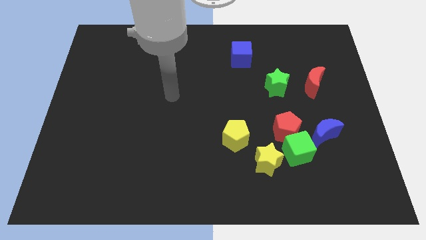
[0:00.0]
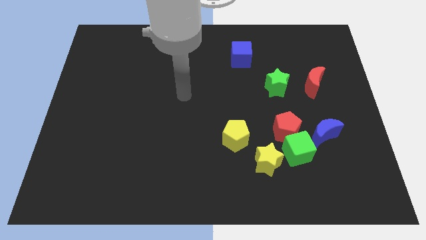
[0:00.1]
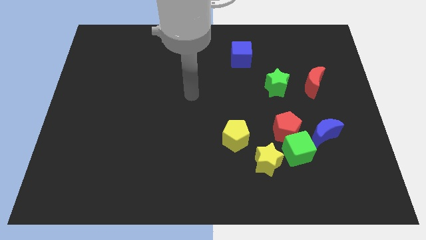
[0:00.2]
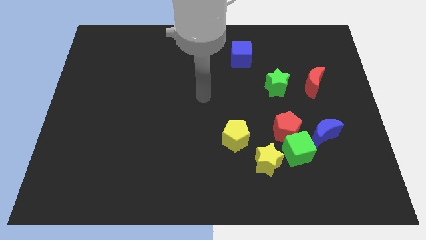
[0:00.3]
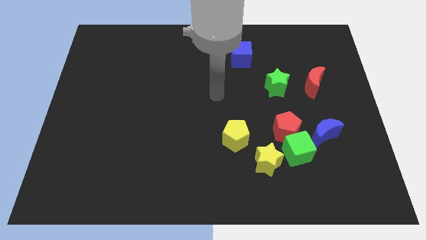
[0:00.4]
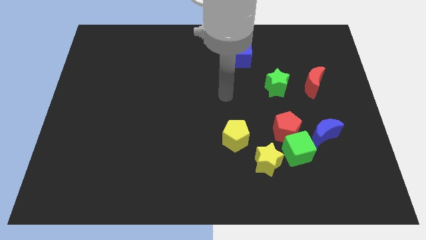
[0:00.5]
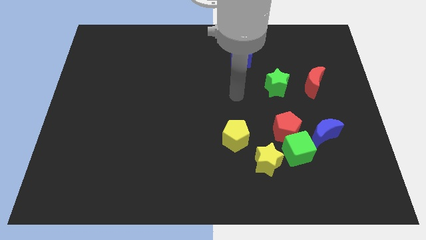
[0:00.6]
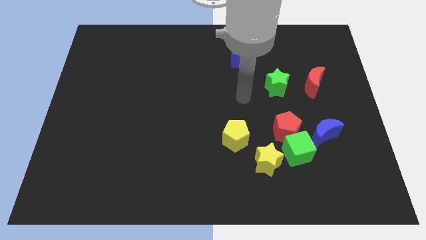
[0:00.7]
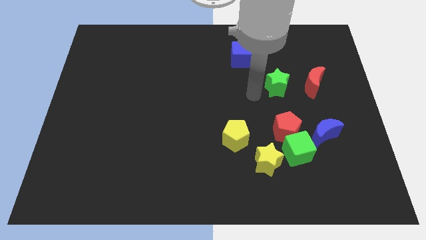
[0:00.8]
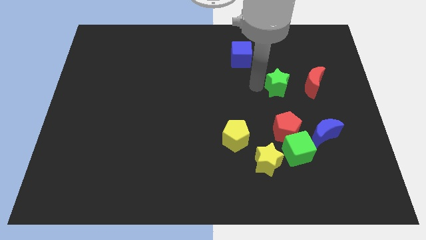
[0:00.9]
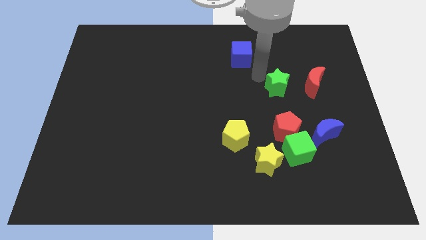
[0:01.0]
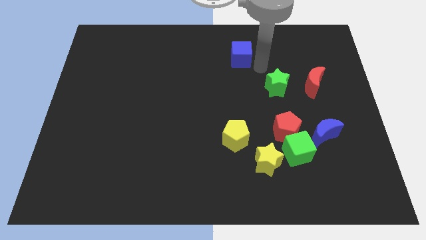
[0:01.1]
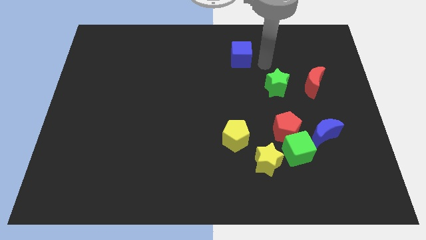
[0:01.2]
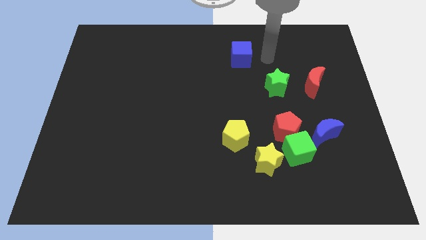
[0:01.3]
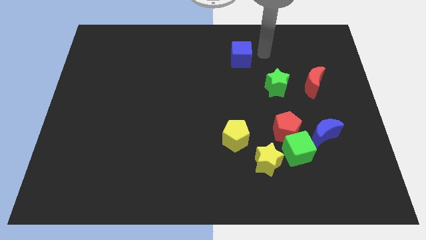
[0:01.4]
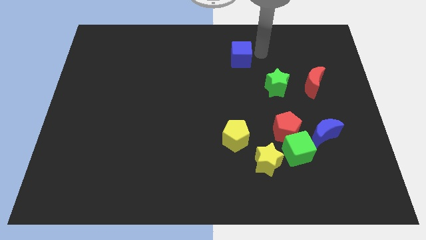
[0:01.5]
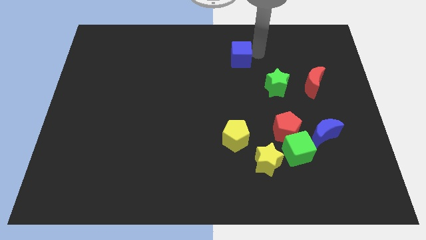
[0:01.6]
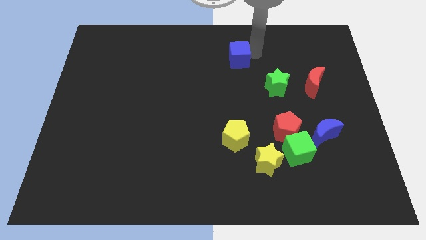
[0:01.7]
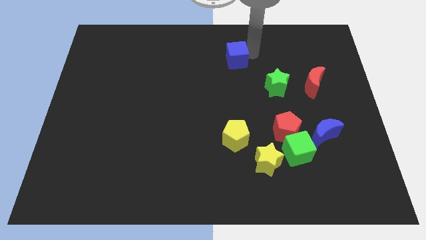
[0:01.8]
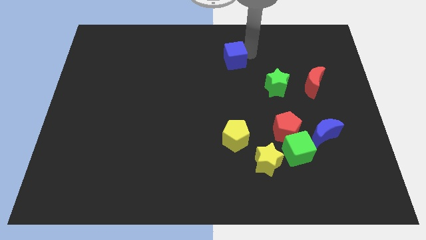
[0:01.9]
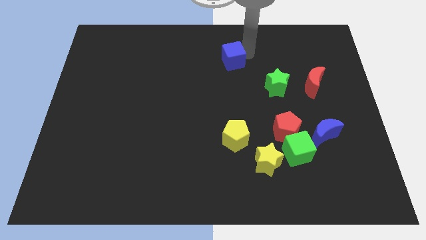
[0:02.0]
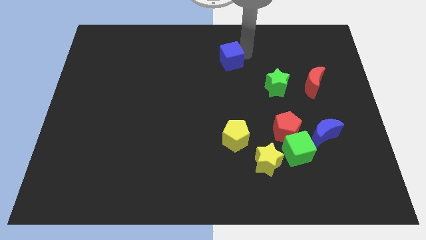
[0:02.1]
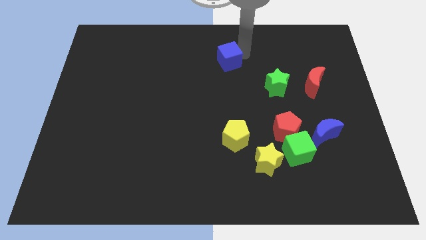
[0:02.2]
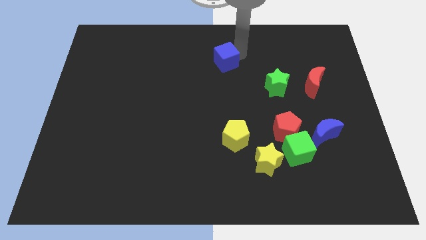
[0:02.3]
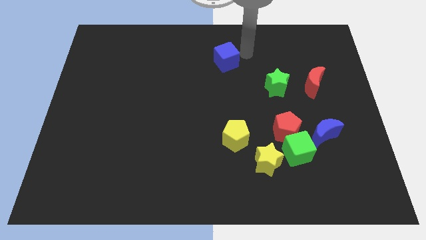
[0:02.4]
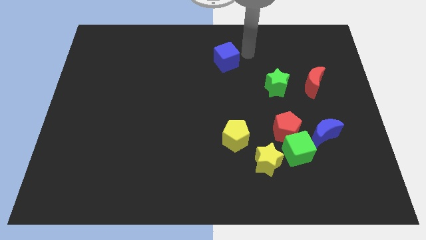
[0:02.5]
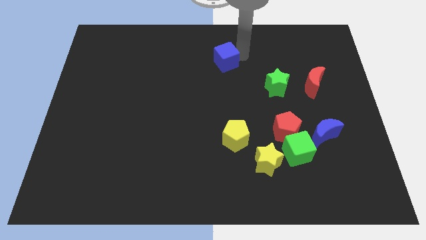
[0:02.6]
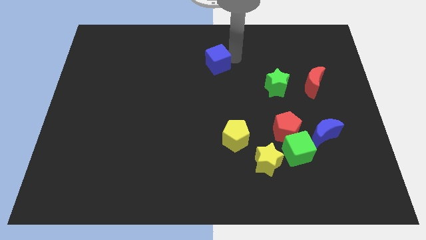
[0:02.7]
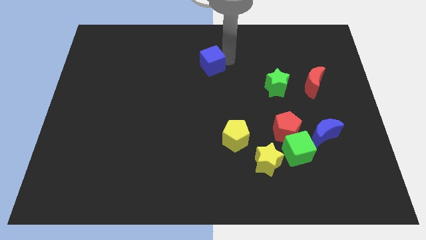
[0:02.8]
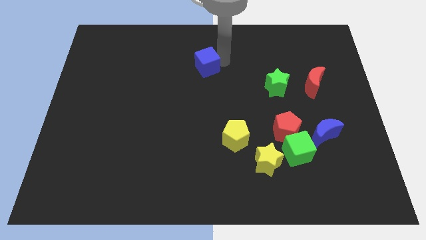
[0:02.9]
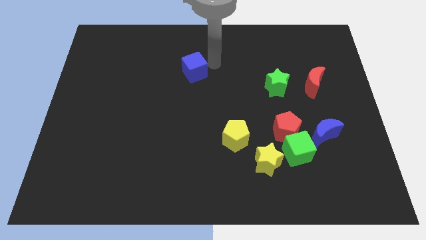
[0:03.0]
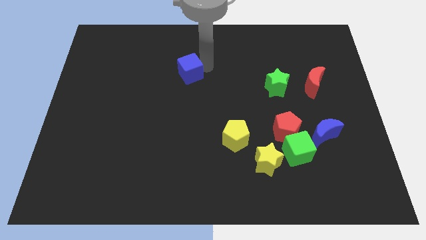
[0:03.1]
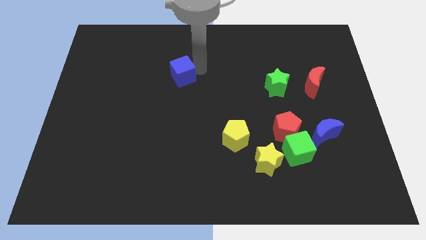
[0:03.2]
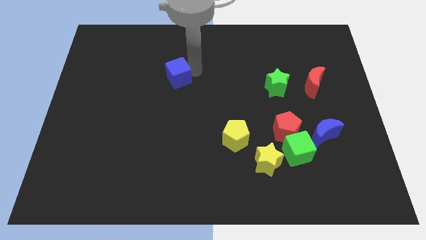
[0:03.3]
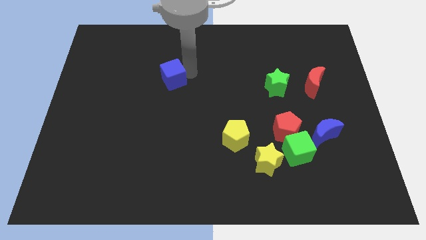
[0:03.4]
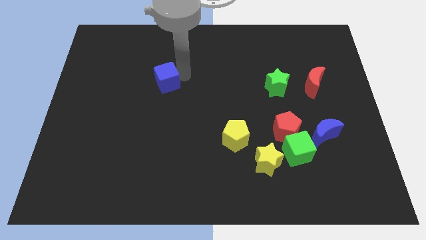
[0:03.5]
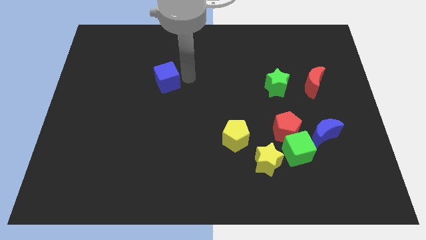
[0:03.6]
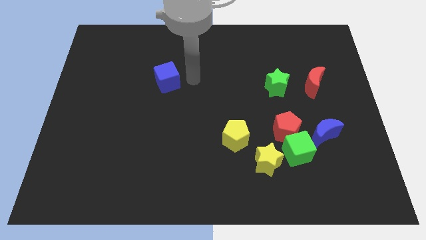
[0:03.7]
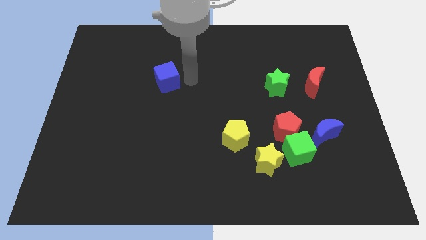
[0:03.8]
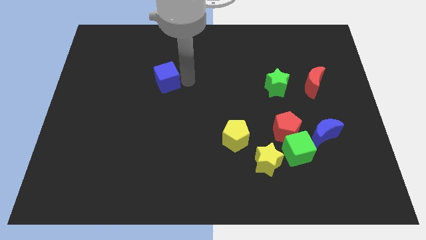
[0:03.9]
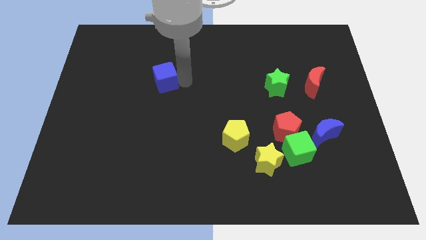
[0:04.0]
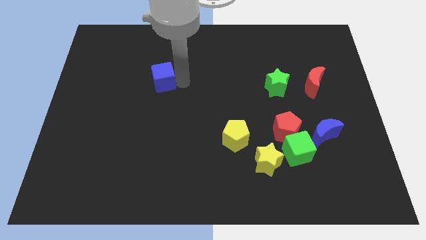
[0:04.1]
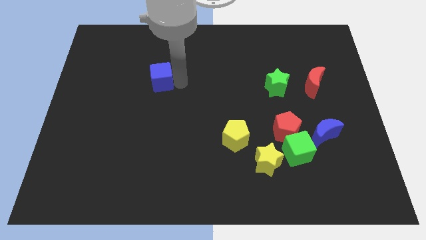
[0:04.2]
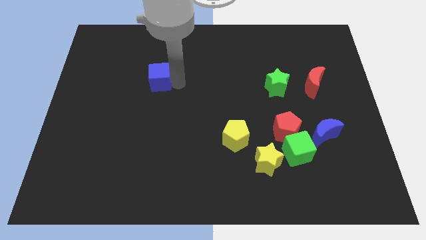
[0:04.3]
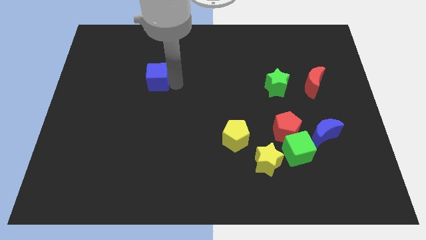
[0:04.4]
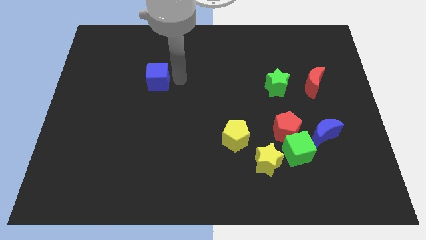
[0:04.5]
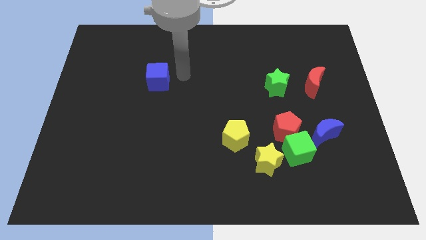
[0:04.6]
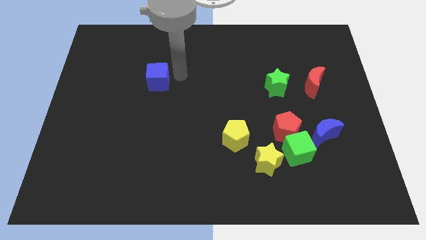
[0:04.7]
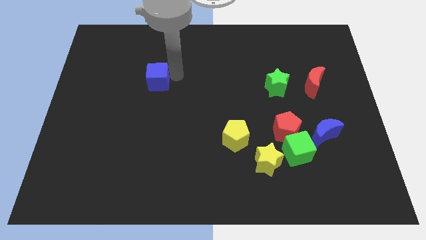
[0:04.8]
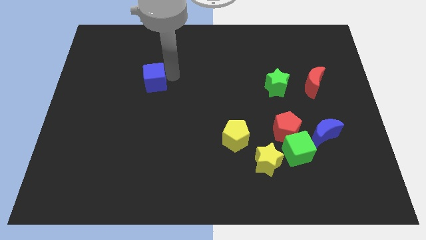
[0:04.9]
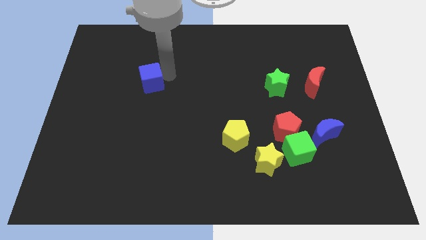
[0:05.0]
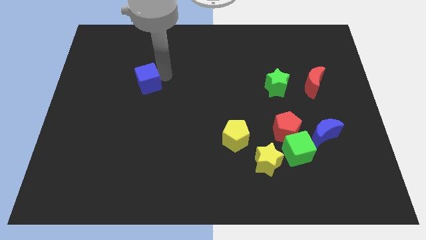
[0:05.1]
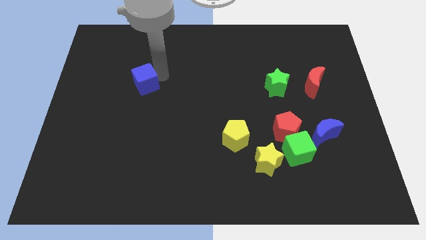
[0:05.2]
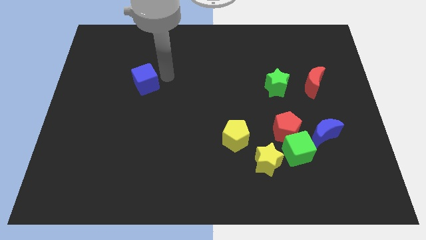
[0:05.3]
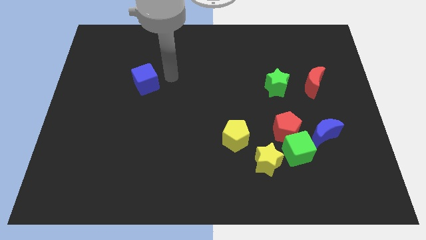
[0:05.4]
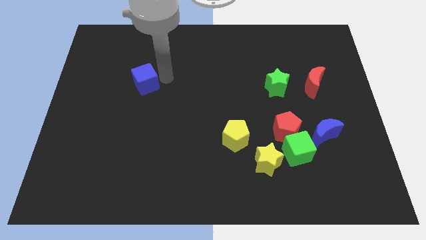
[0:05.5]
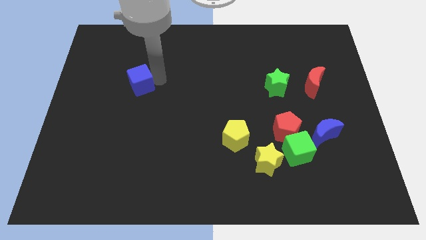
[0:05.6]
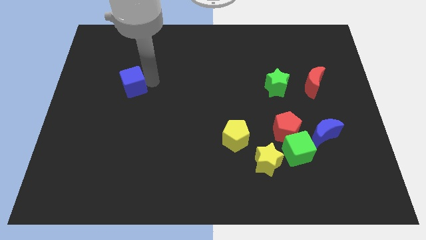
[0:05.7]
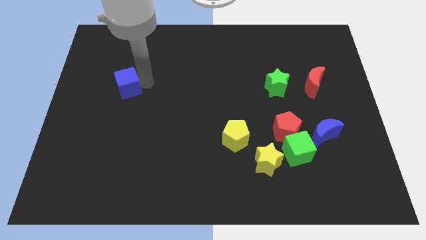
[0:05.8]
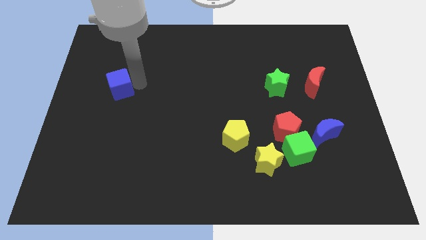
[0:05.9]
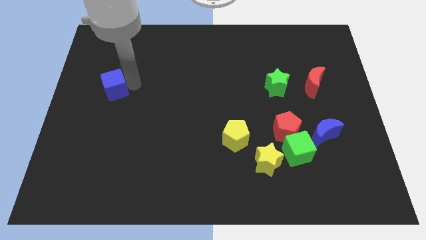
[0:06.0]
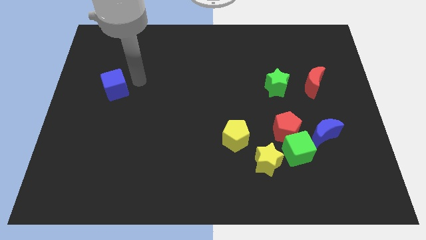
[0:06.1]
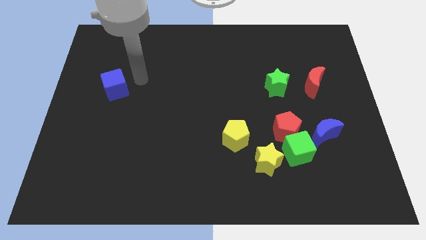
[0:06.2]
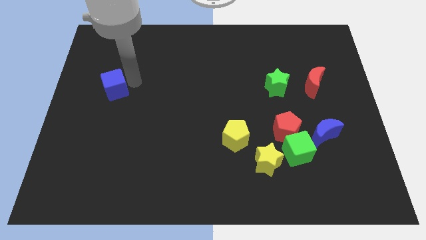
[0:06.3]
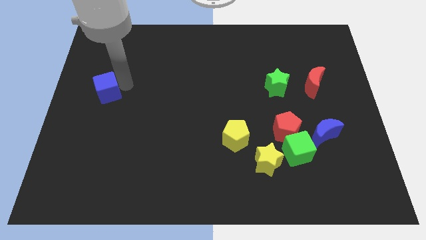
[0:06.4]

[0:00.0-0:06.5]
move the blue cube to the left side
